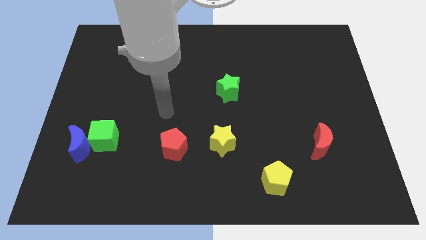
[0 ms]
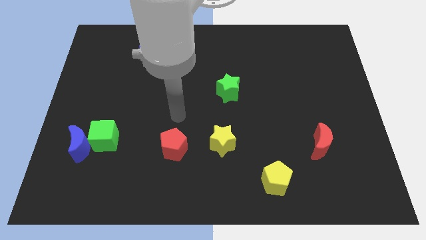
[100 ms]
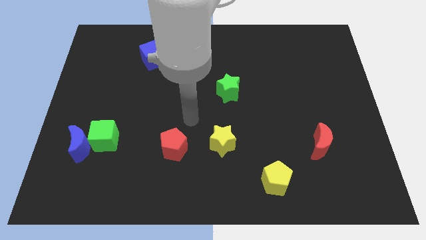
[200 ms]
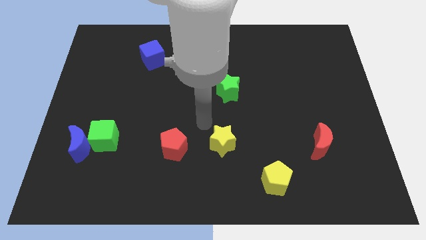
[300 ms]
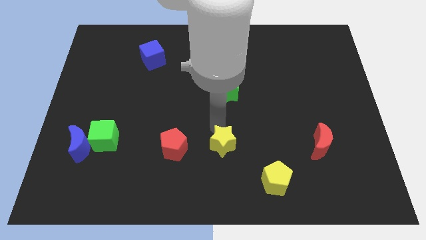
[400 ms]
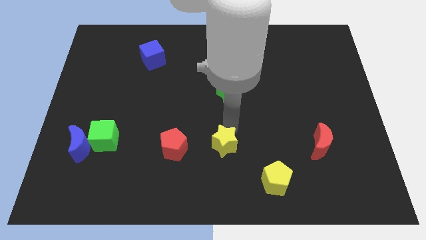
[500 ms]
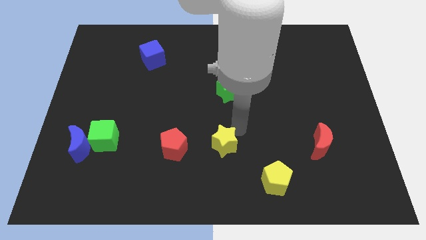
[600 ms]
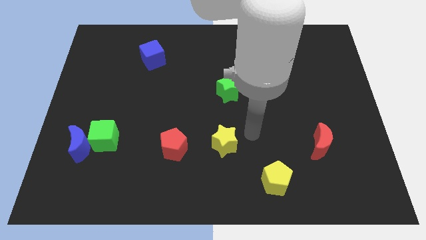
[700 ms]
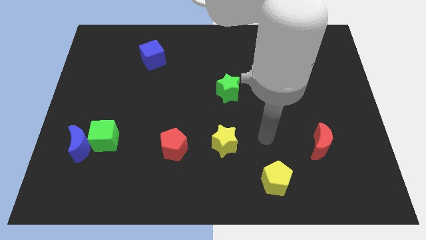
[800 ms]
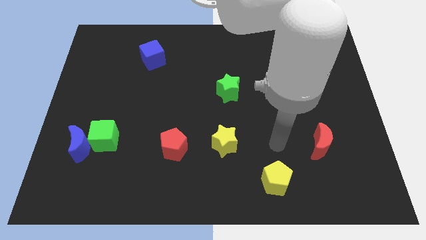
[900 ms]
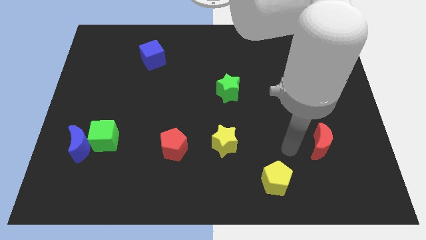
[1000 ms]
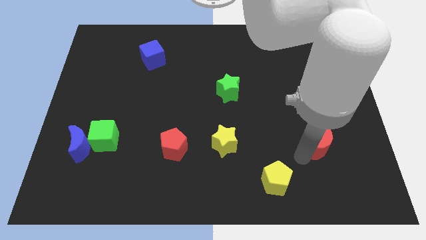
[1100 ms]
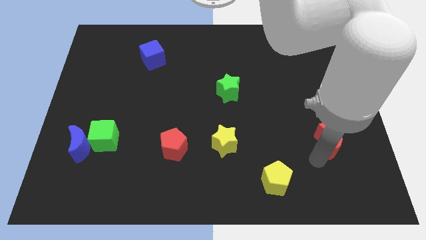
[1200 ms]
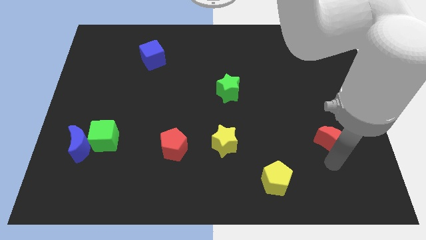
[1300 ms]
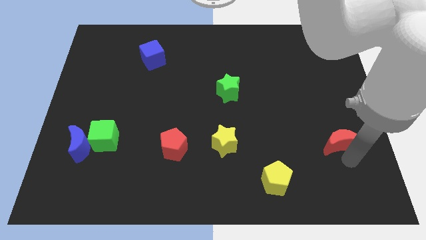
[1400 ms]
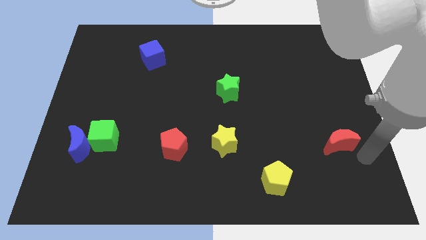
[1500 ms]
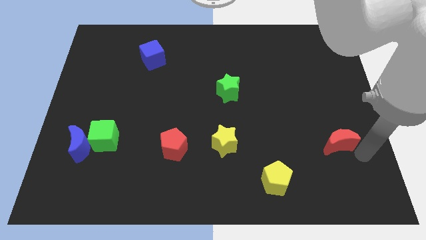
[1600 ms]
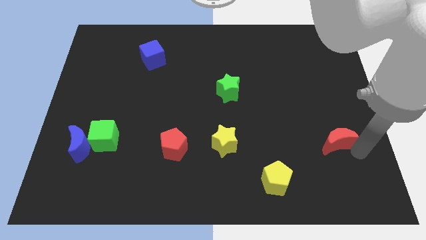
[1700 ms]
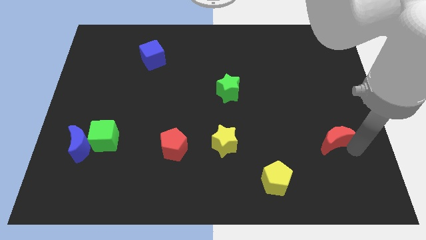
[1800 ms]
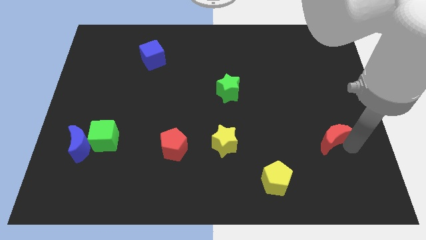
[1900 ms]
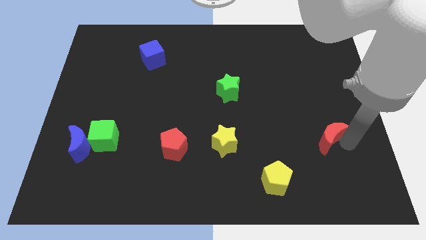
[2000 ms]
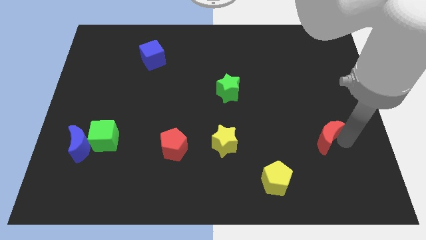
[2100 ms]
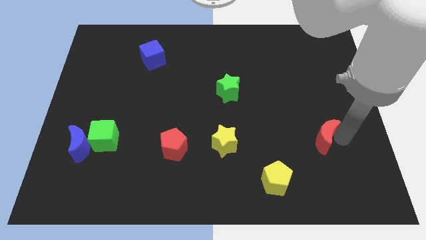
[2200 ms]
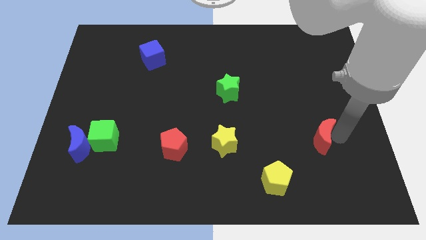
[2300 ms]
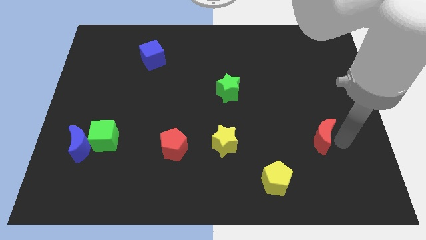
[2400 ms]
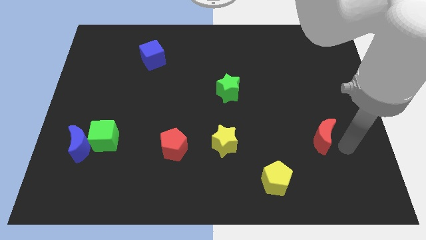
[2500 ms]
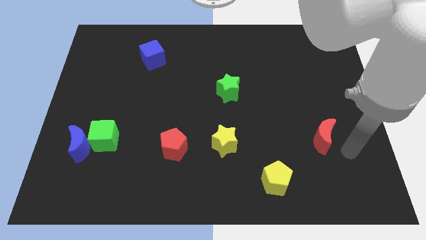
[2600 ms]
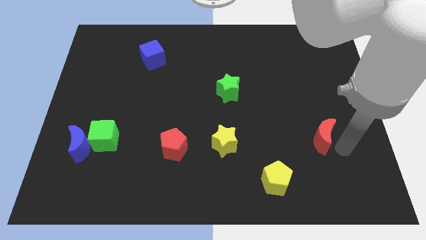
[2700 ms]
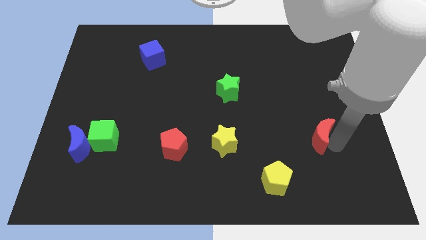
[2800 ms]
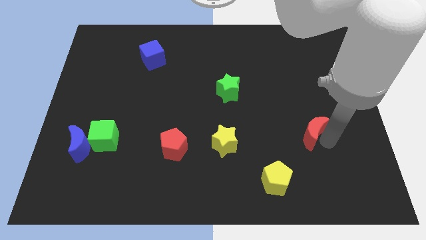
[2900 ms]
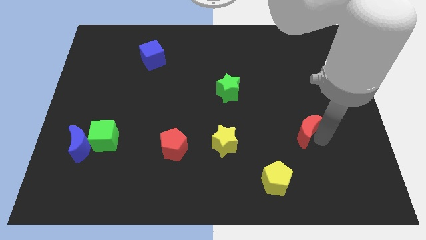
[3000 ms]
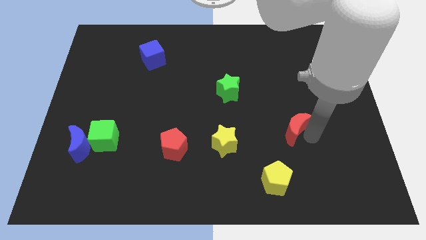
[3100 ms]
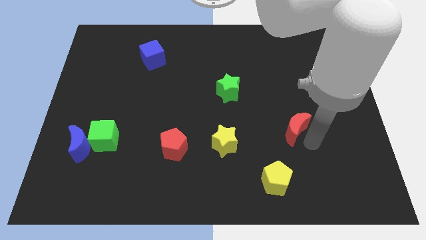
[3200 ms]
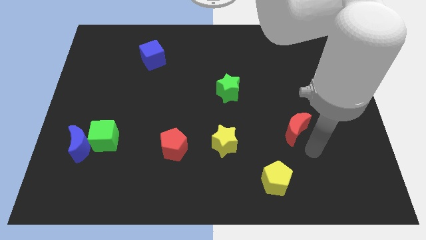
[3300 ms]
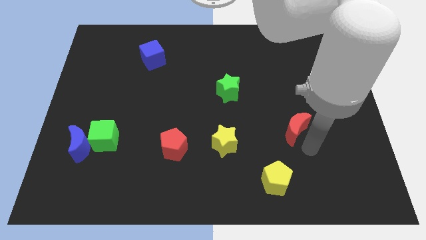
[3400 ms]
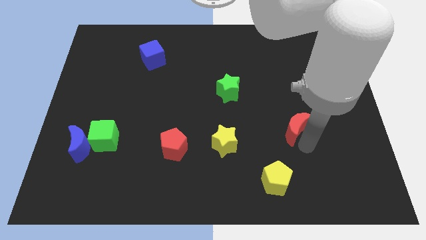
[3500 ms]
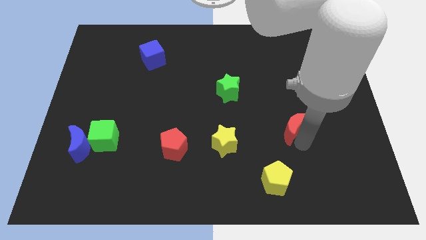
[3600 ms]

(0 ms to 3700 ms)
slightly push the red moon upwards and then left

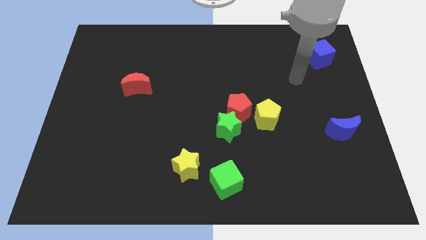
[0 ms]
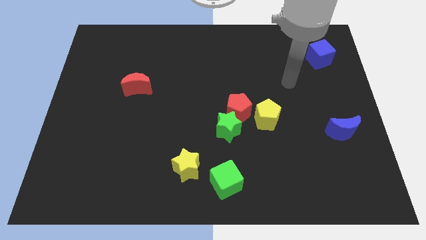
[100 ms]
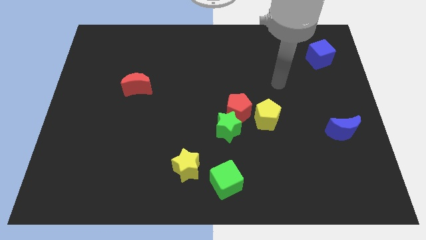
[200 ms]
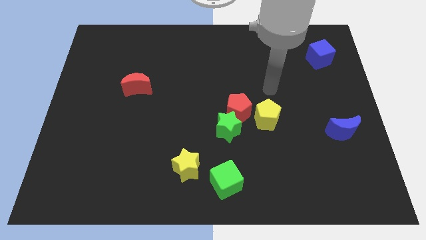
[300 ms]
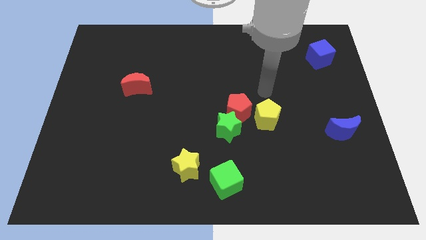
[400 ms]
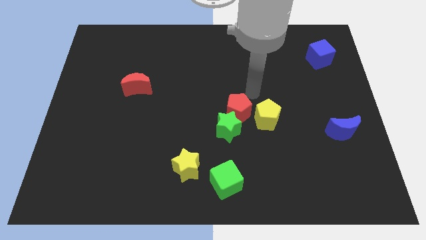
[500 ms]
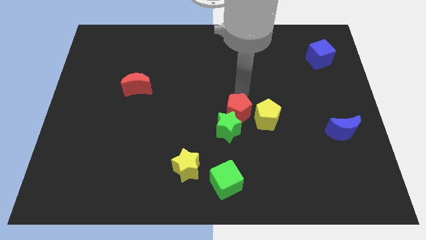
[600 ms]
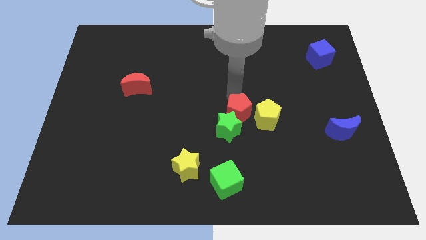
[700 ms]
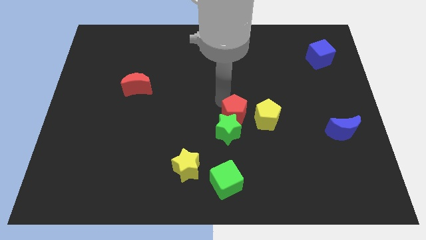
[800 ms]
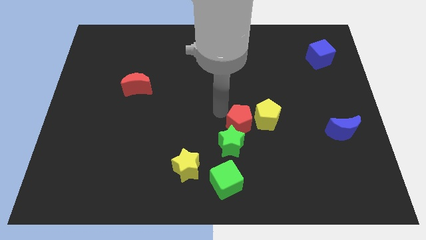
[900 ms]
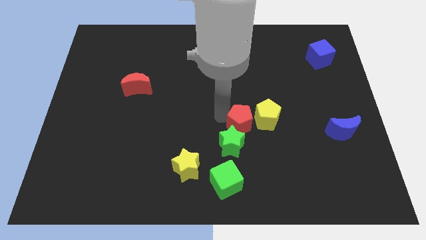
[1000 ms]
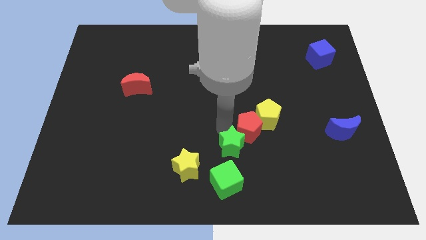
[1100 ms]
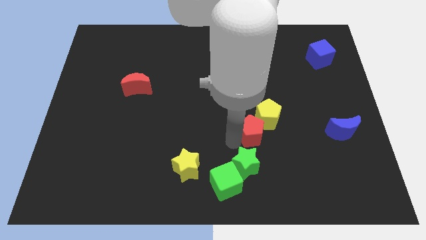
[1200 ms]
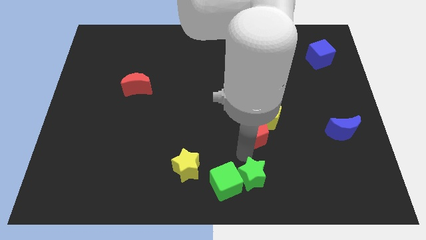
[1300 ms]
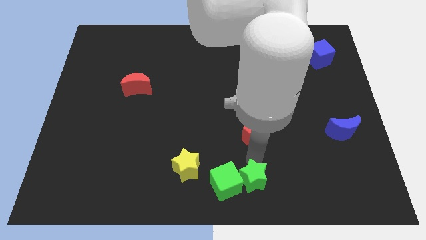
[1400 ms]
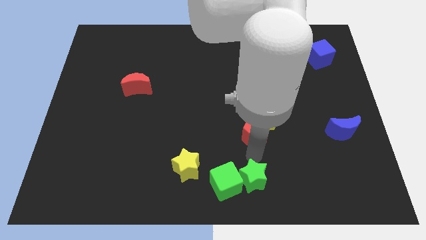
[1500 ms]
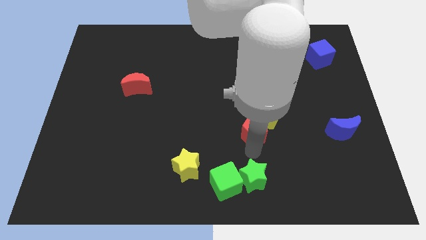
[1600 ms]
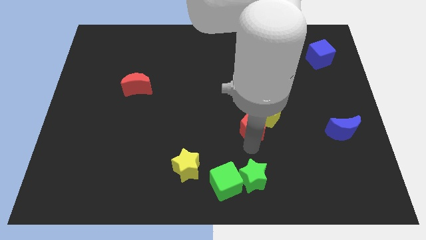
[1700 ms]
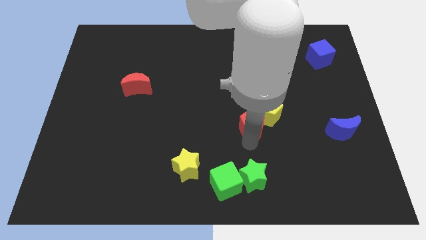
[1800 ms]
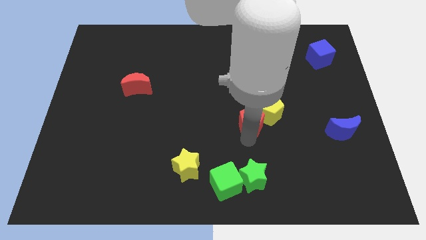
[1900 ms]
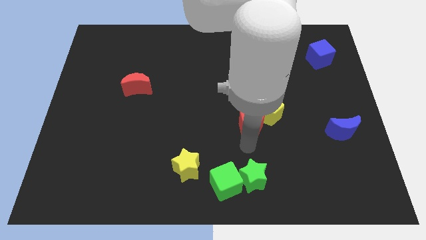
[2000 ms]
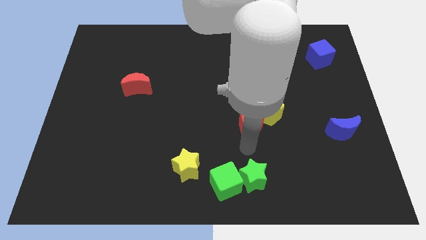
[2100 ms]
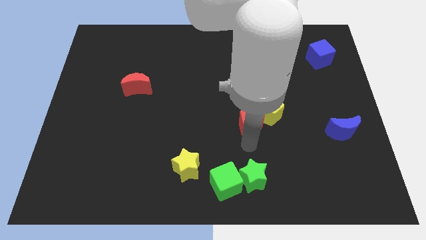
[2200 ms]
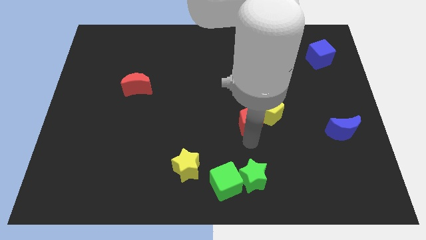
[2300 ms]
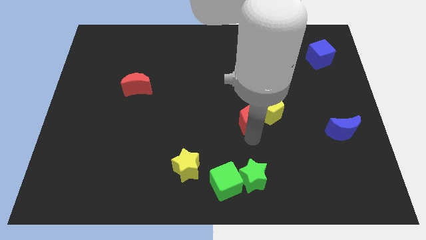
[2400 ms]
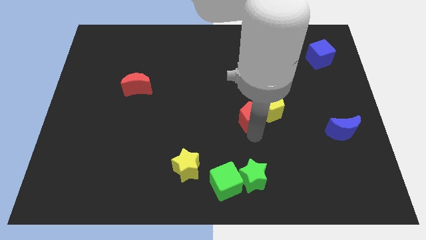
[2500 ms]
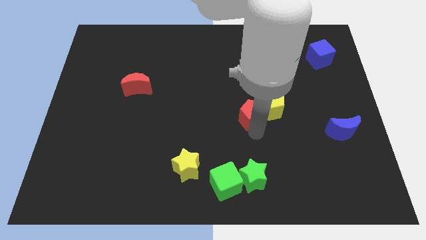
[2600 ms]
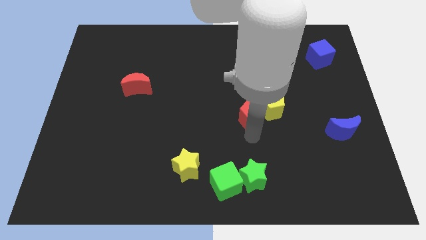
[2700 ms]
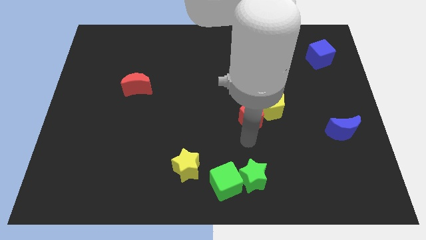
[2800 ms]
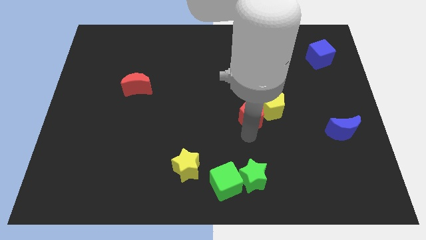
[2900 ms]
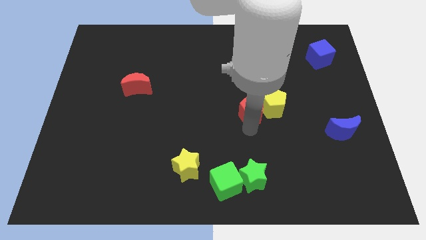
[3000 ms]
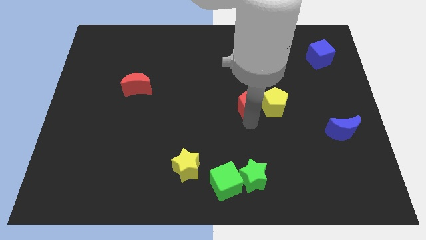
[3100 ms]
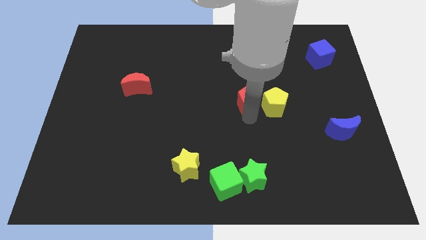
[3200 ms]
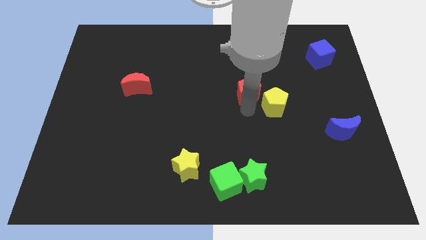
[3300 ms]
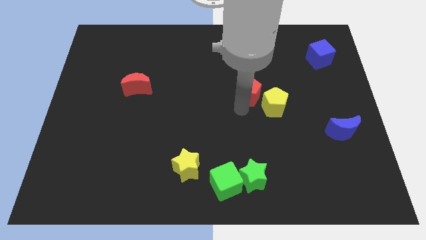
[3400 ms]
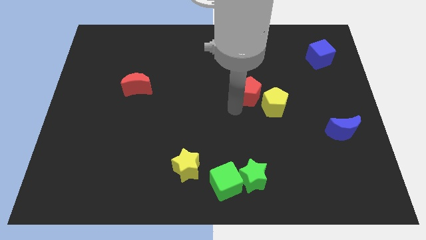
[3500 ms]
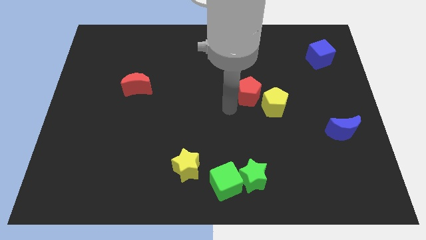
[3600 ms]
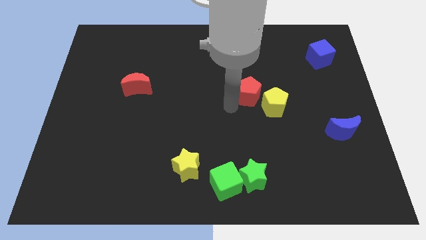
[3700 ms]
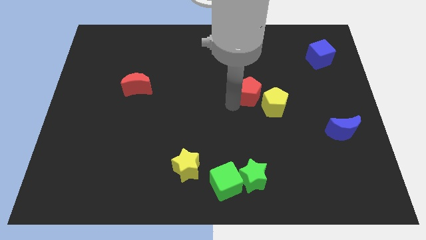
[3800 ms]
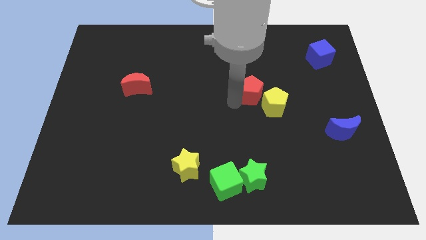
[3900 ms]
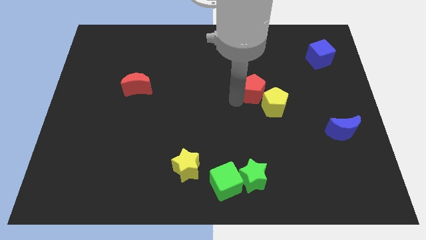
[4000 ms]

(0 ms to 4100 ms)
move the red pentagon diagonally upwards and to the right somewhat
